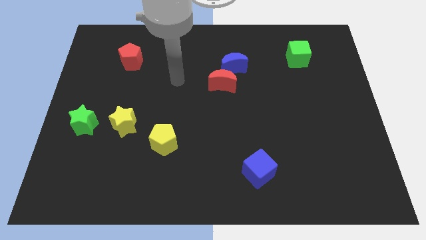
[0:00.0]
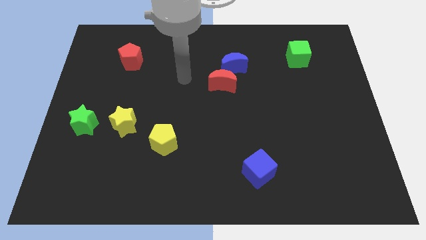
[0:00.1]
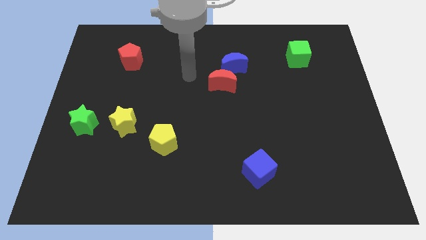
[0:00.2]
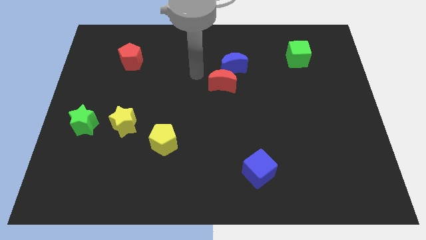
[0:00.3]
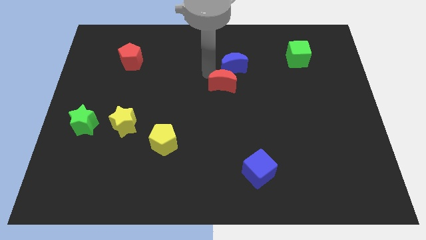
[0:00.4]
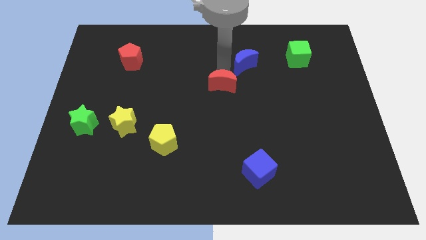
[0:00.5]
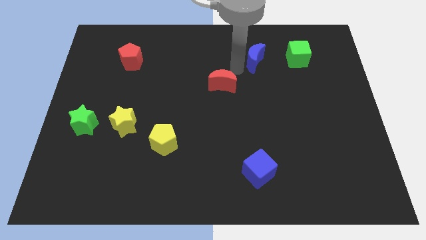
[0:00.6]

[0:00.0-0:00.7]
move the red moon away from the blue moon

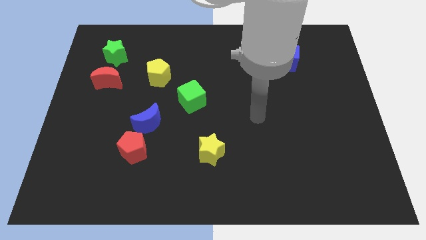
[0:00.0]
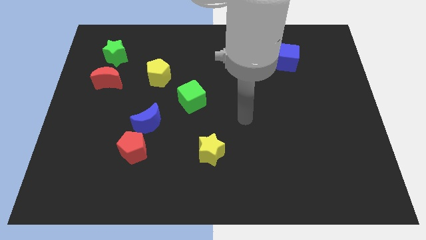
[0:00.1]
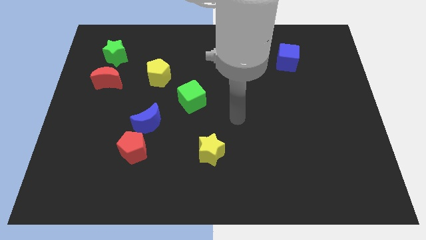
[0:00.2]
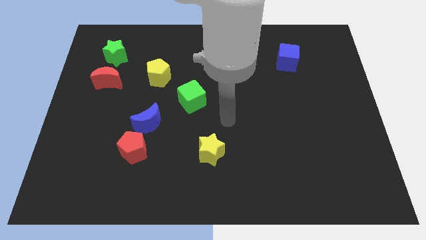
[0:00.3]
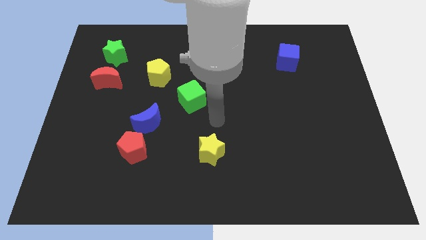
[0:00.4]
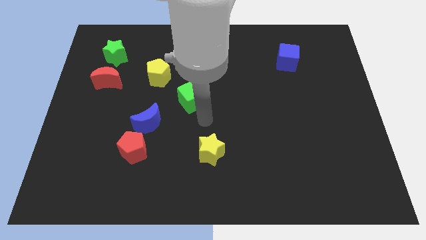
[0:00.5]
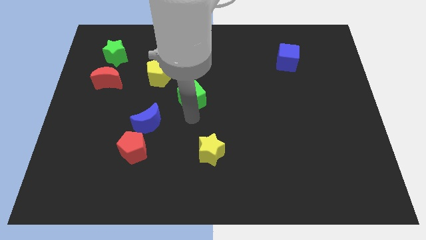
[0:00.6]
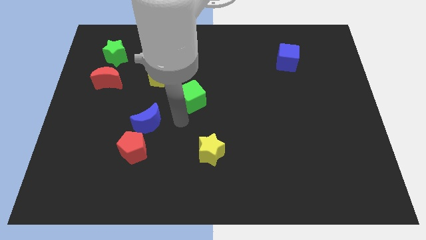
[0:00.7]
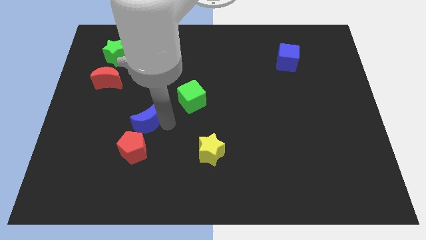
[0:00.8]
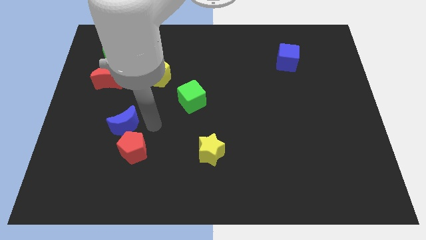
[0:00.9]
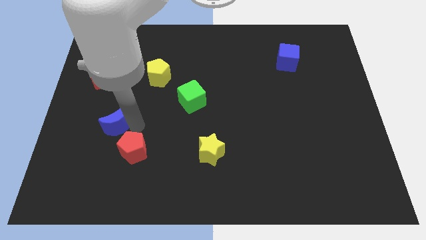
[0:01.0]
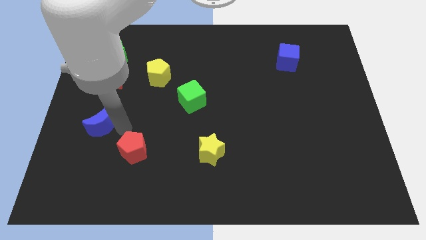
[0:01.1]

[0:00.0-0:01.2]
separate the red pentagon from the blue moon

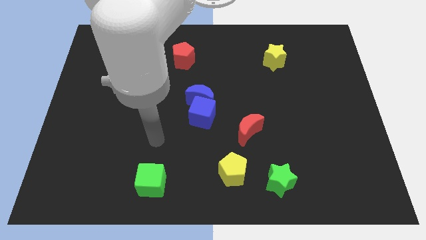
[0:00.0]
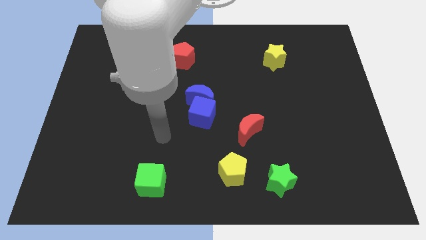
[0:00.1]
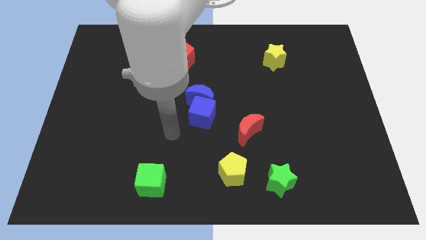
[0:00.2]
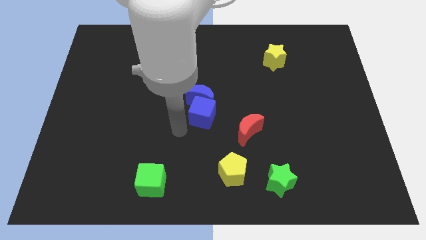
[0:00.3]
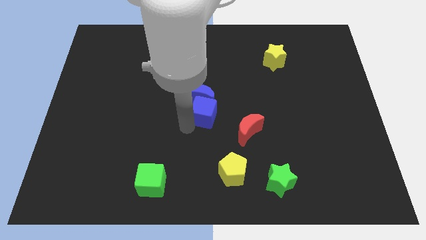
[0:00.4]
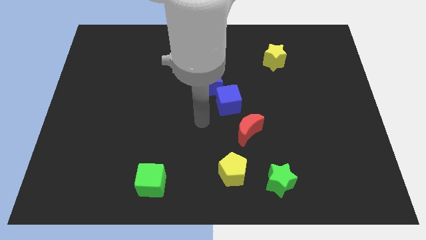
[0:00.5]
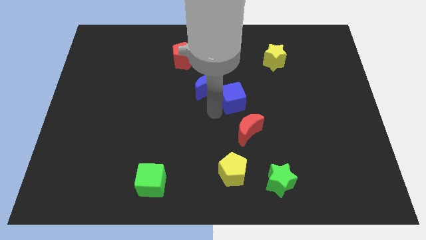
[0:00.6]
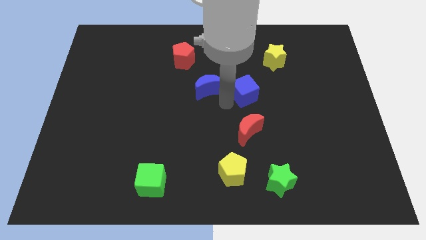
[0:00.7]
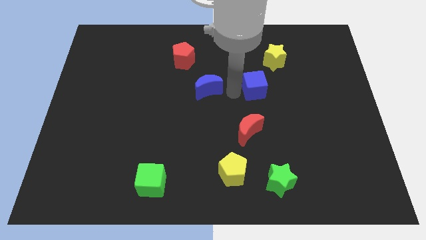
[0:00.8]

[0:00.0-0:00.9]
move the blue moon away from the blue cube

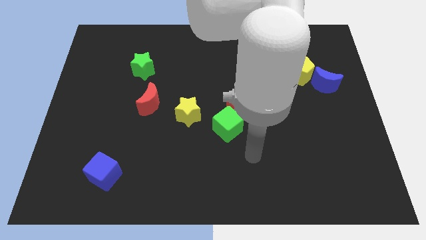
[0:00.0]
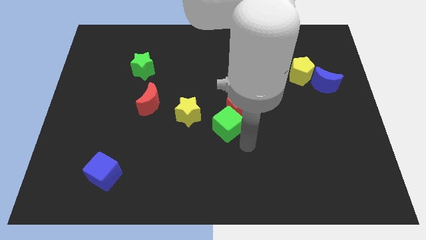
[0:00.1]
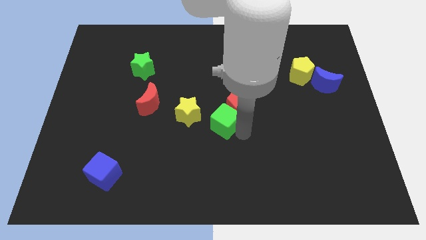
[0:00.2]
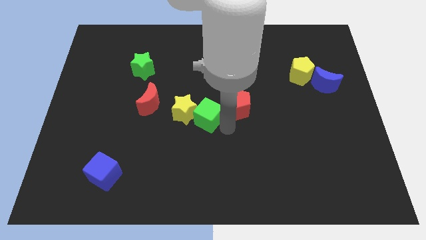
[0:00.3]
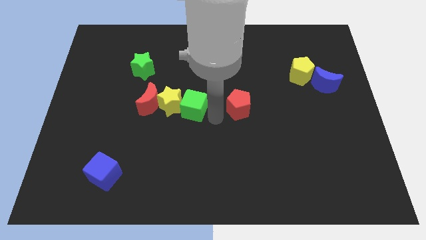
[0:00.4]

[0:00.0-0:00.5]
pull the red pentagon apart from the green cube

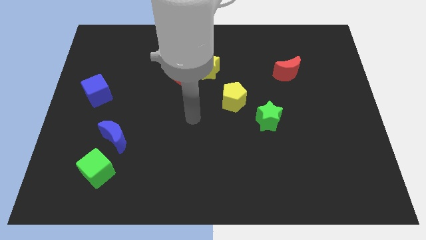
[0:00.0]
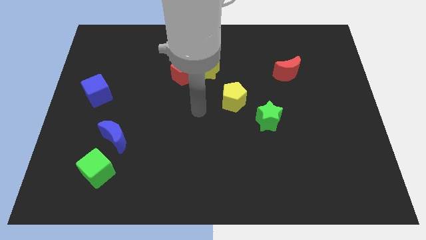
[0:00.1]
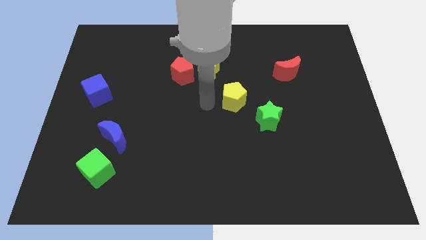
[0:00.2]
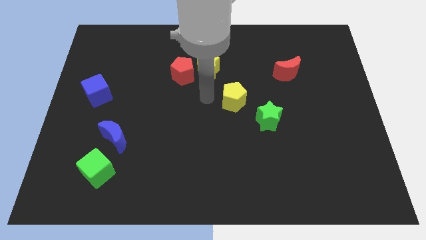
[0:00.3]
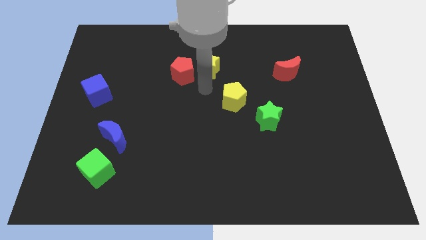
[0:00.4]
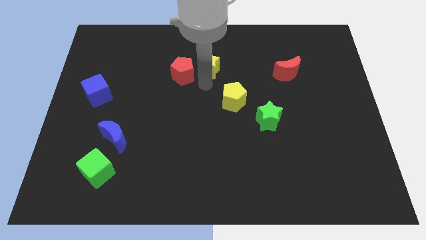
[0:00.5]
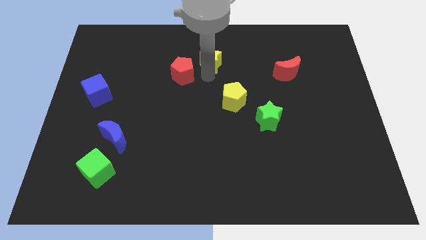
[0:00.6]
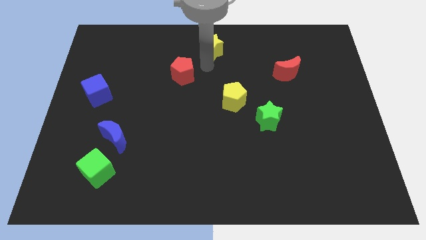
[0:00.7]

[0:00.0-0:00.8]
separate the red pentagon from the yellow star

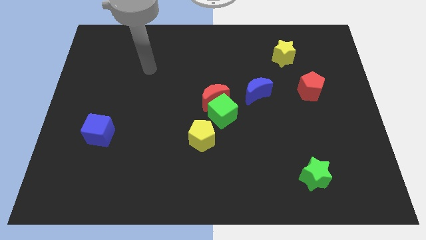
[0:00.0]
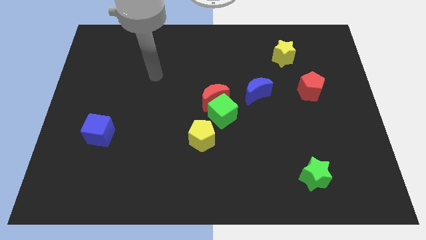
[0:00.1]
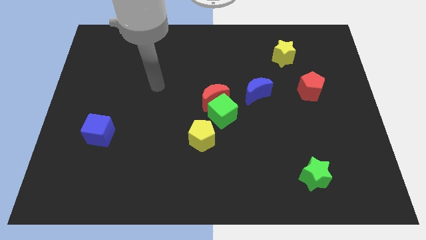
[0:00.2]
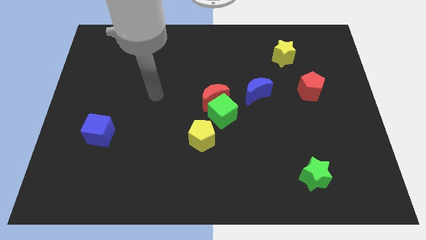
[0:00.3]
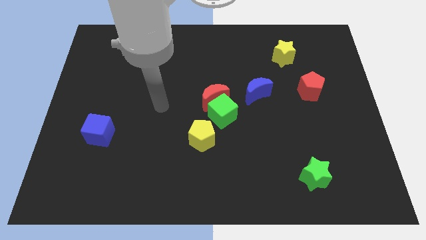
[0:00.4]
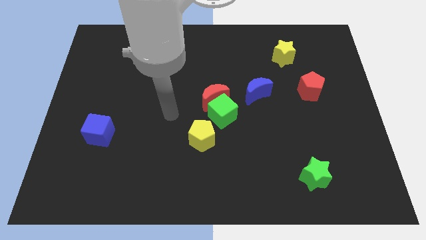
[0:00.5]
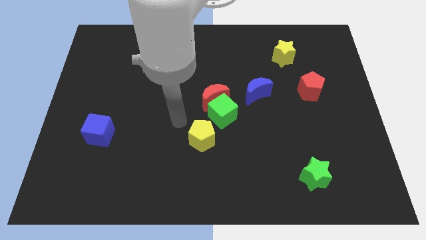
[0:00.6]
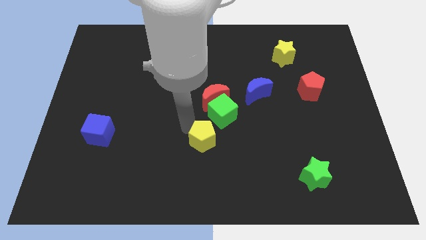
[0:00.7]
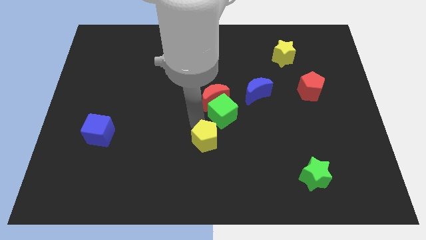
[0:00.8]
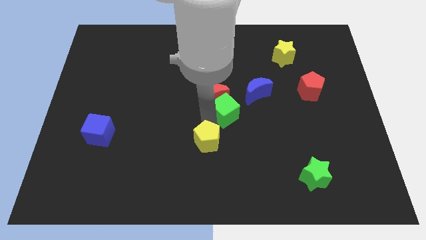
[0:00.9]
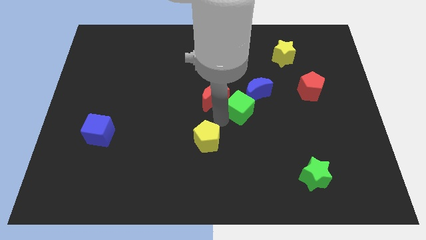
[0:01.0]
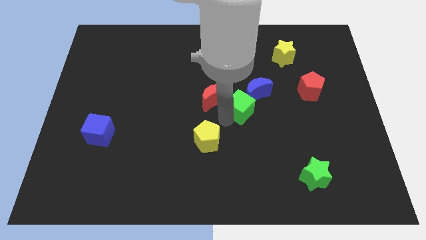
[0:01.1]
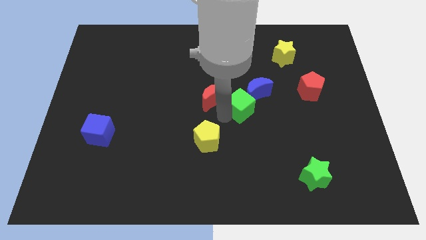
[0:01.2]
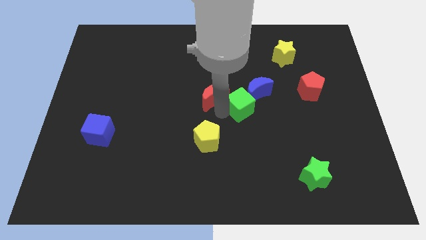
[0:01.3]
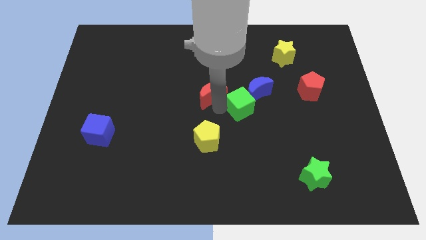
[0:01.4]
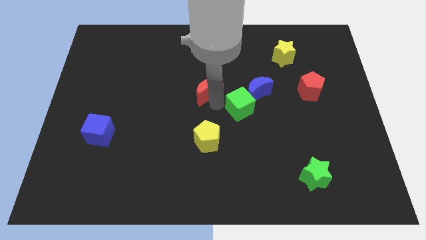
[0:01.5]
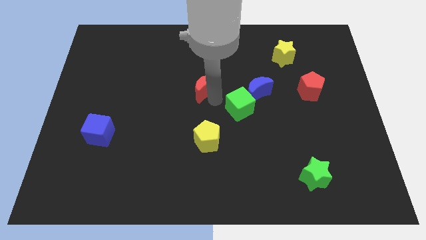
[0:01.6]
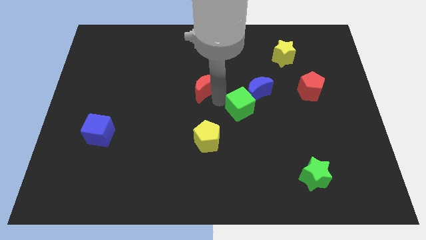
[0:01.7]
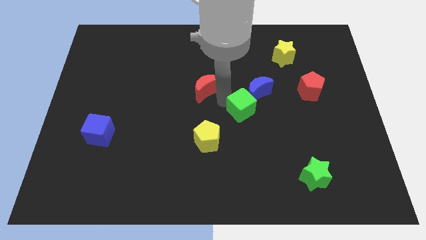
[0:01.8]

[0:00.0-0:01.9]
separate the red moon from the green cube

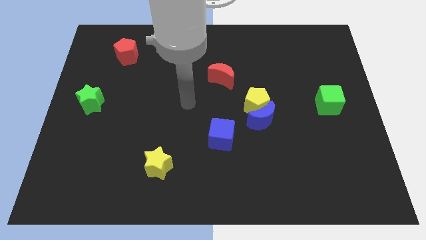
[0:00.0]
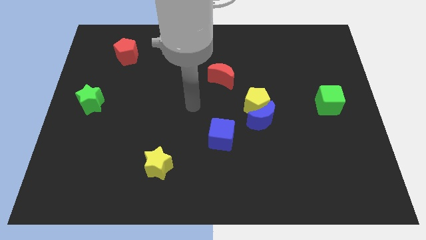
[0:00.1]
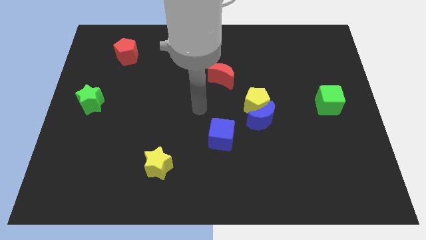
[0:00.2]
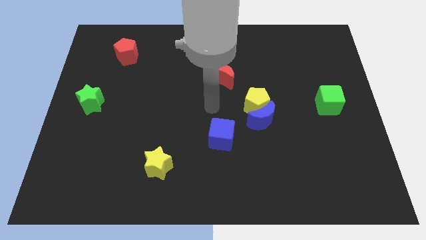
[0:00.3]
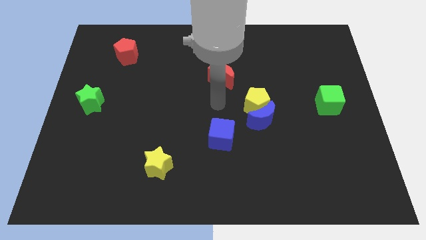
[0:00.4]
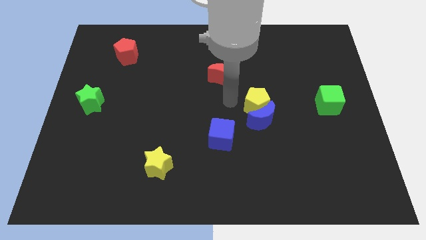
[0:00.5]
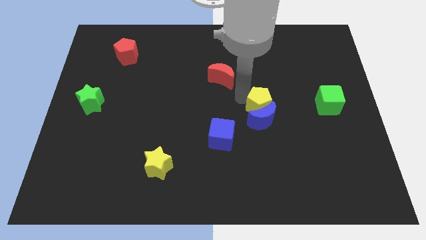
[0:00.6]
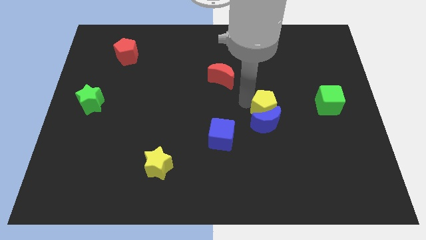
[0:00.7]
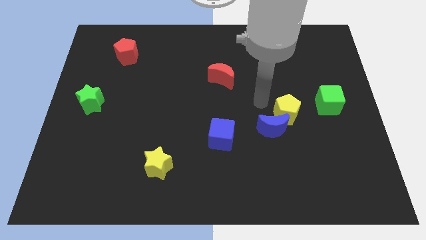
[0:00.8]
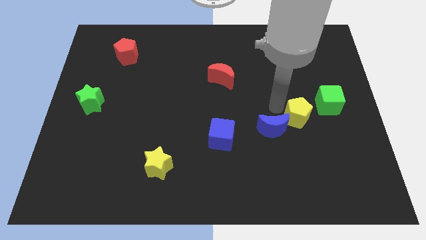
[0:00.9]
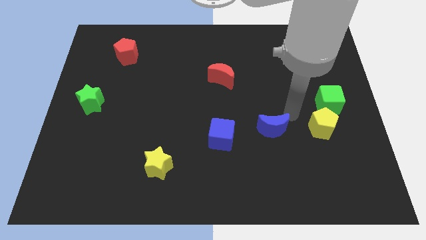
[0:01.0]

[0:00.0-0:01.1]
pull the blue moon apart from the yellow pentagon

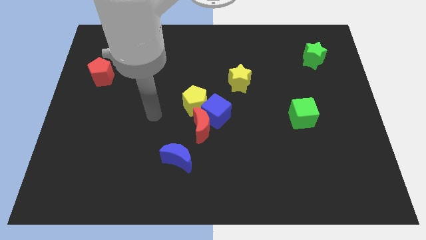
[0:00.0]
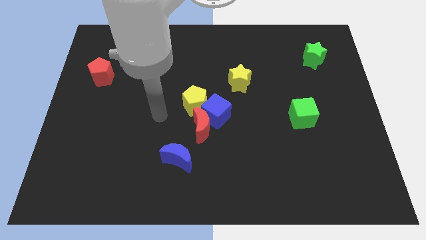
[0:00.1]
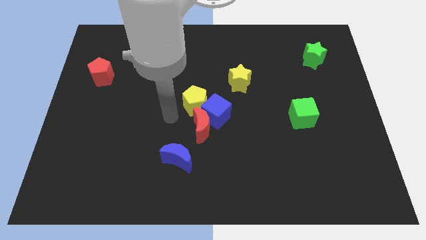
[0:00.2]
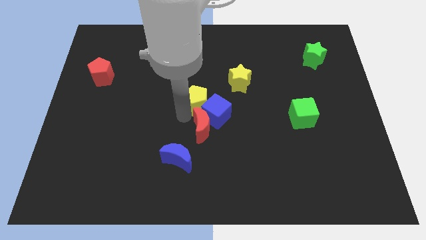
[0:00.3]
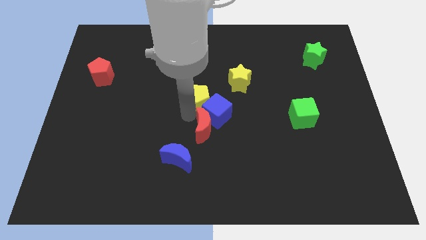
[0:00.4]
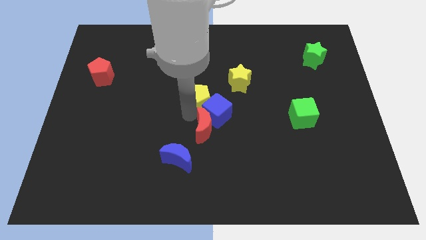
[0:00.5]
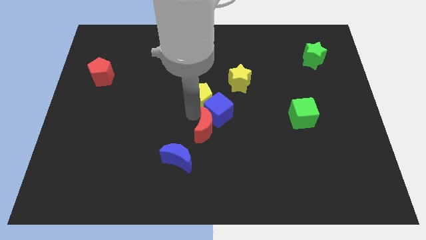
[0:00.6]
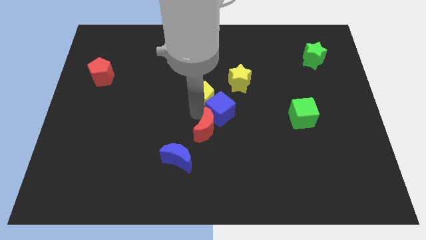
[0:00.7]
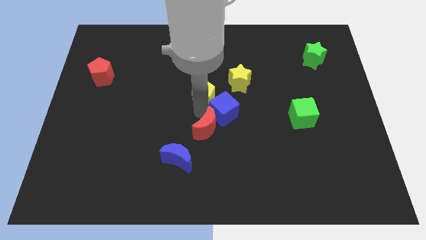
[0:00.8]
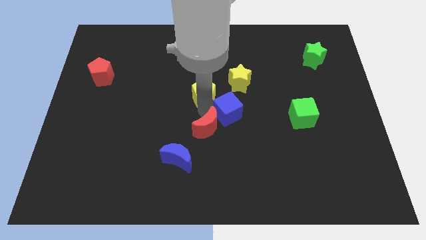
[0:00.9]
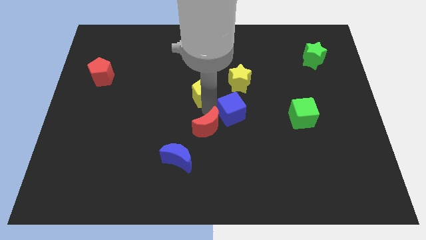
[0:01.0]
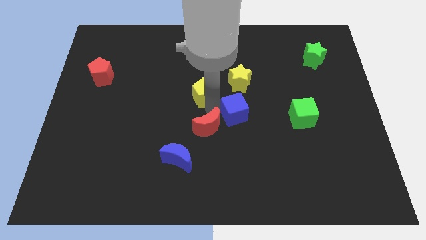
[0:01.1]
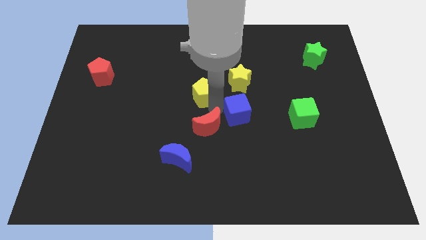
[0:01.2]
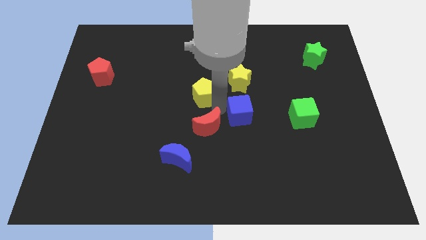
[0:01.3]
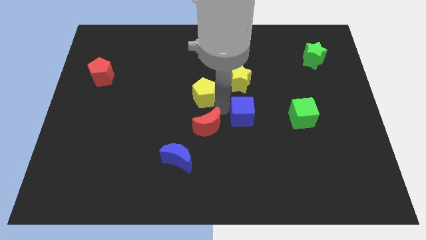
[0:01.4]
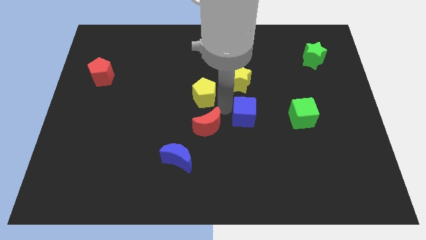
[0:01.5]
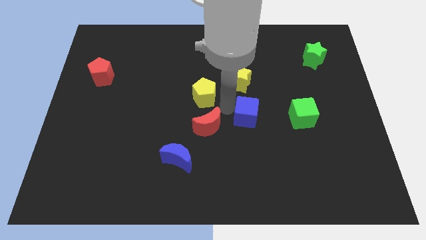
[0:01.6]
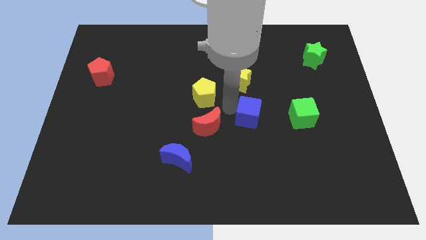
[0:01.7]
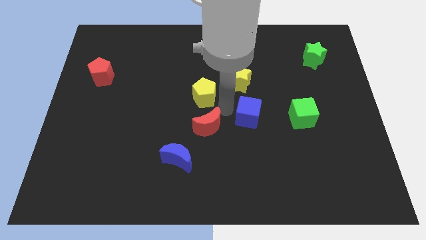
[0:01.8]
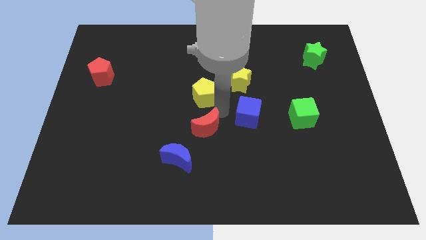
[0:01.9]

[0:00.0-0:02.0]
pull the blue cube apart from the red moon and yellow pentagon

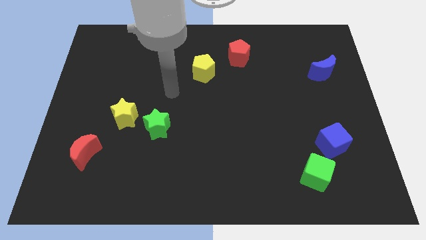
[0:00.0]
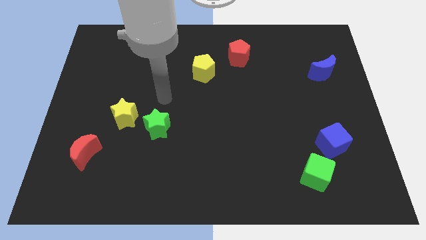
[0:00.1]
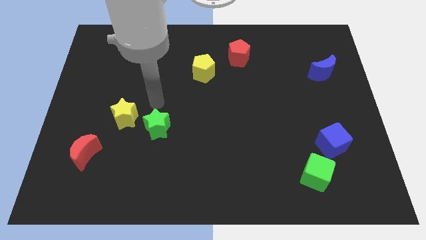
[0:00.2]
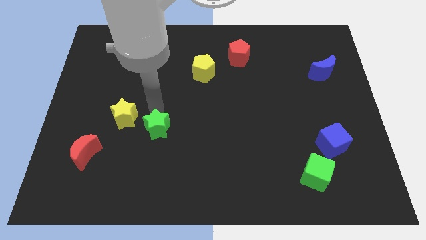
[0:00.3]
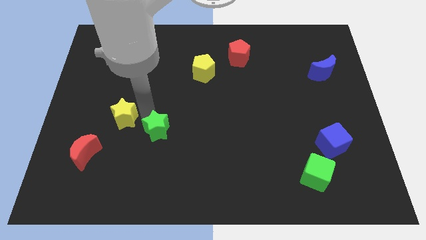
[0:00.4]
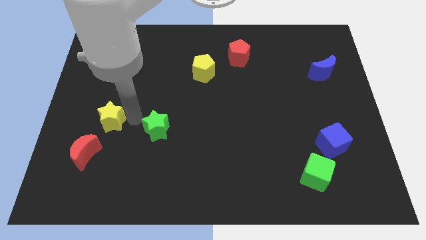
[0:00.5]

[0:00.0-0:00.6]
separate the green star from the yellow star
